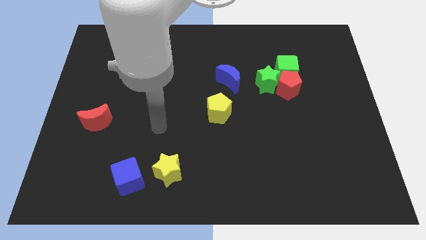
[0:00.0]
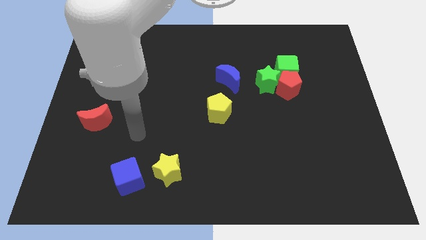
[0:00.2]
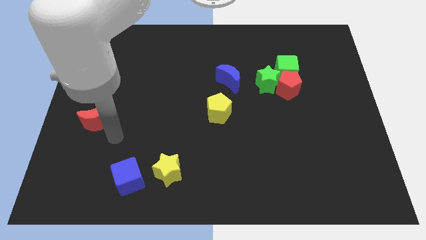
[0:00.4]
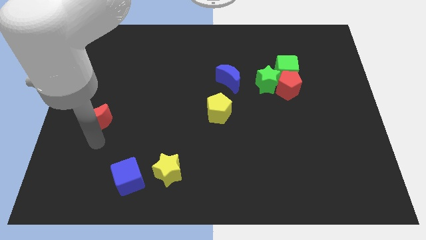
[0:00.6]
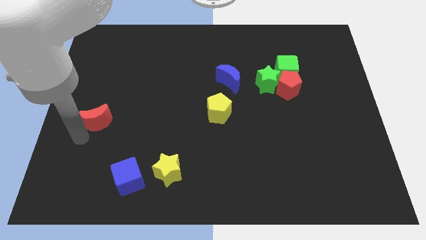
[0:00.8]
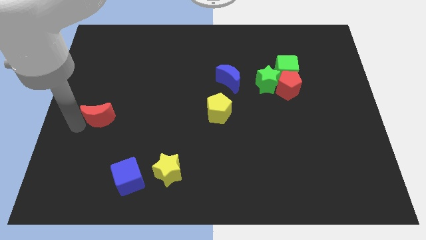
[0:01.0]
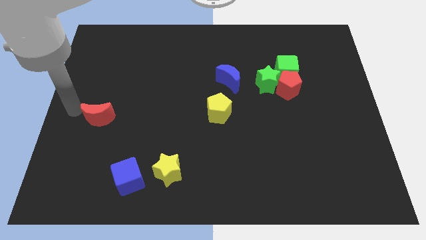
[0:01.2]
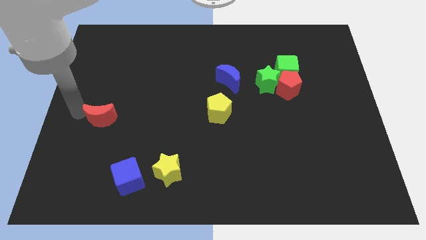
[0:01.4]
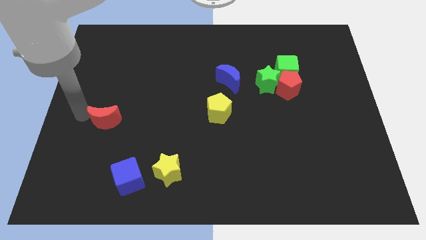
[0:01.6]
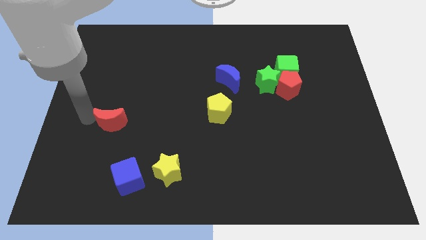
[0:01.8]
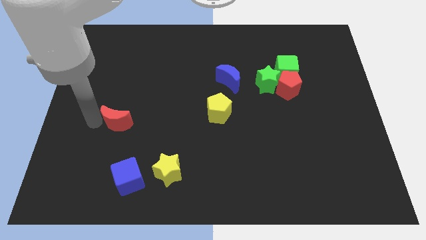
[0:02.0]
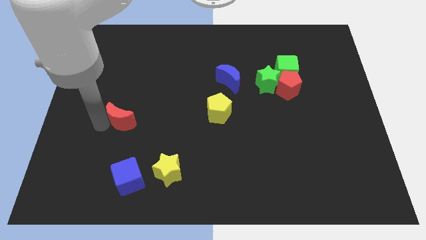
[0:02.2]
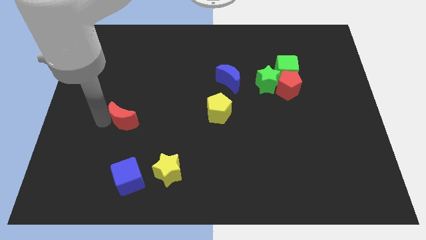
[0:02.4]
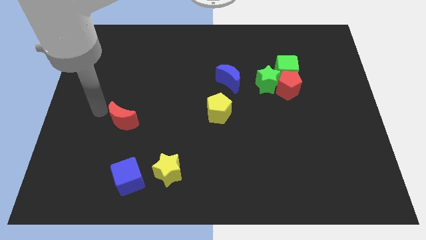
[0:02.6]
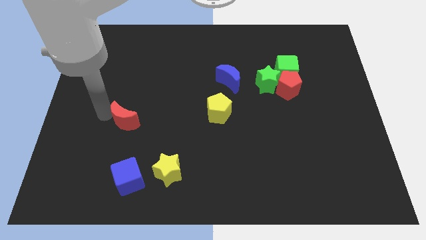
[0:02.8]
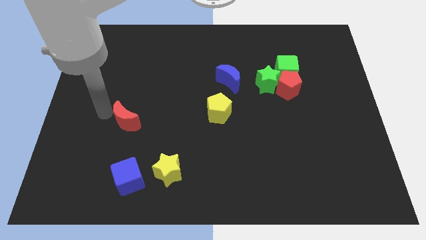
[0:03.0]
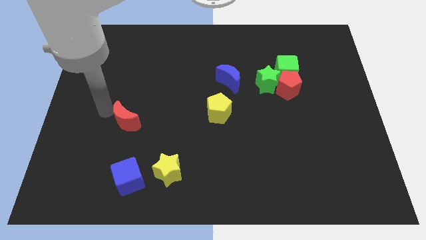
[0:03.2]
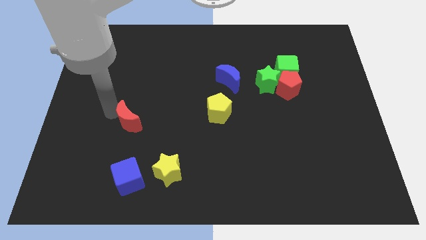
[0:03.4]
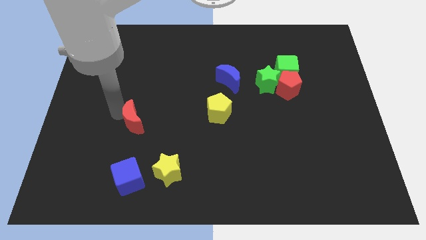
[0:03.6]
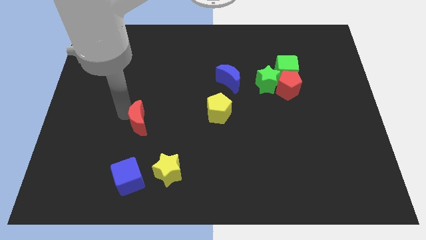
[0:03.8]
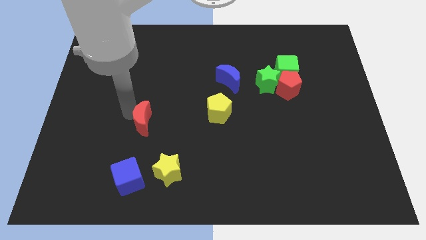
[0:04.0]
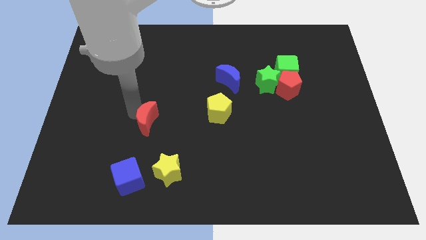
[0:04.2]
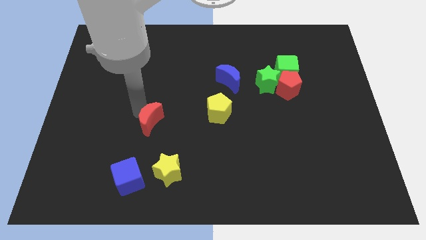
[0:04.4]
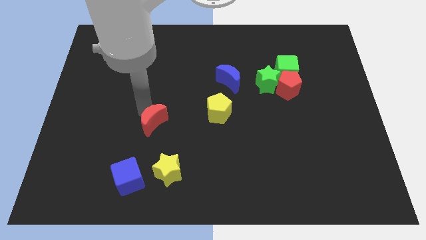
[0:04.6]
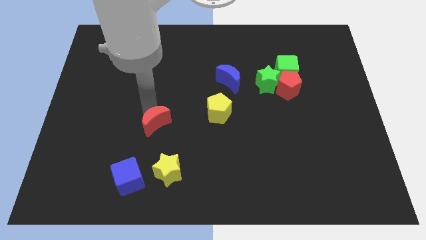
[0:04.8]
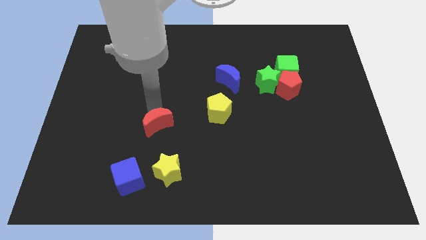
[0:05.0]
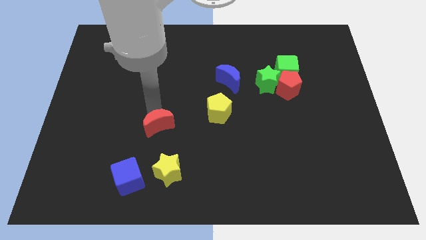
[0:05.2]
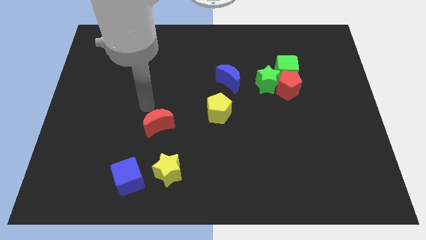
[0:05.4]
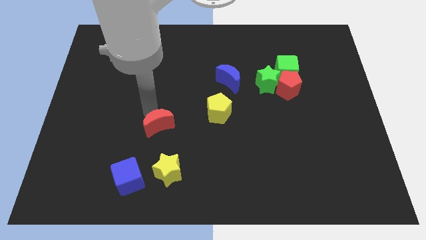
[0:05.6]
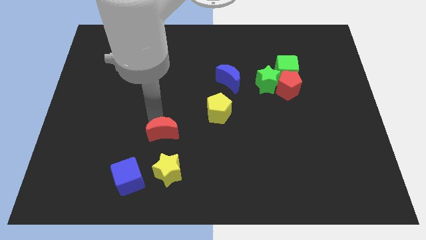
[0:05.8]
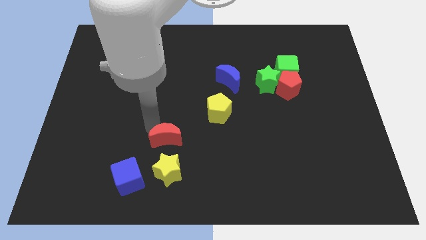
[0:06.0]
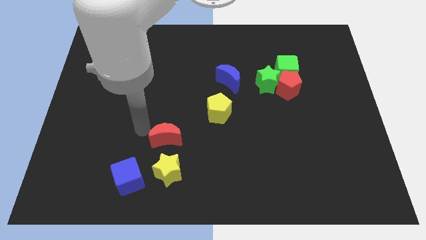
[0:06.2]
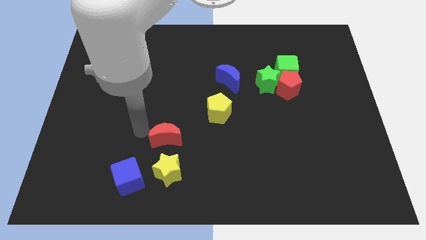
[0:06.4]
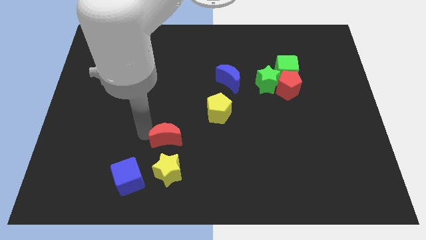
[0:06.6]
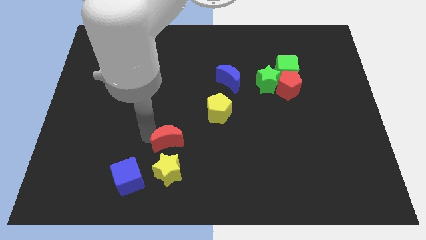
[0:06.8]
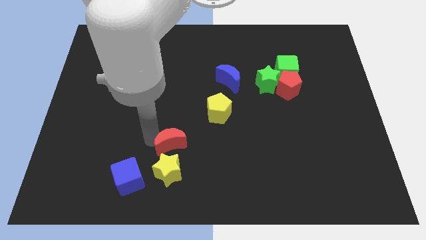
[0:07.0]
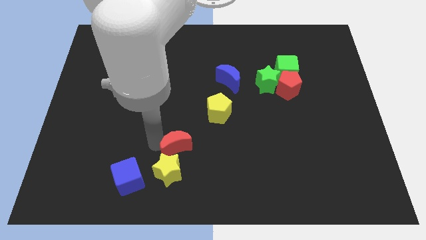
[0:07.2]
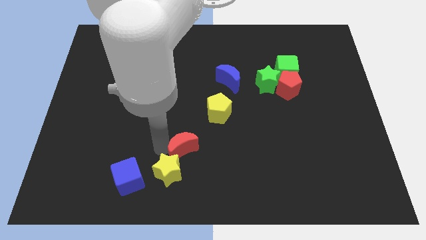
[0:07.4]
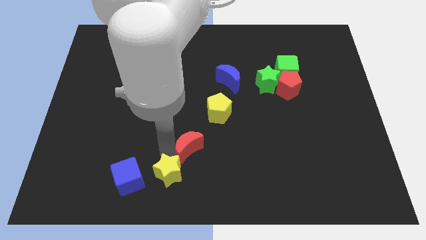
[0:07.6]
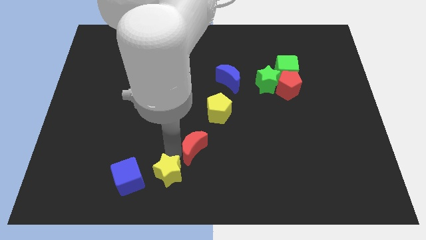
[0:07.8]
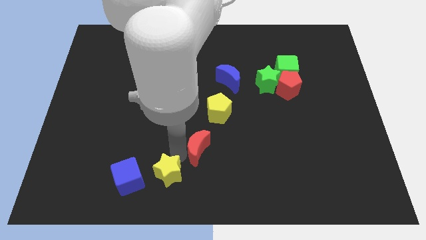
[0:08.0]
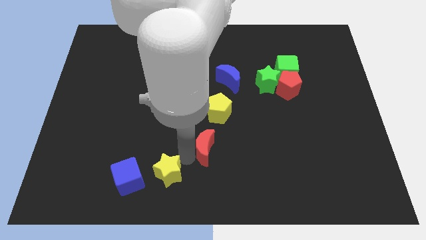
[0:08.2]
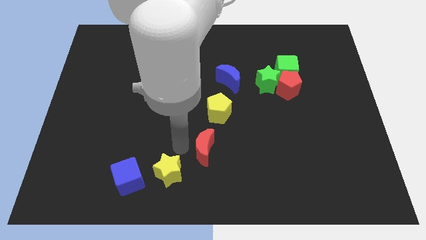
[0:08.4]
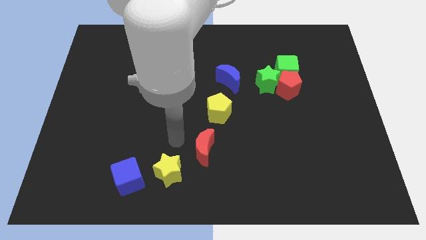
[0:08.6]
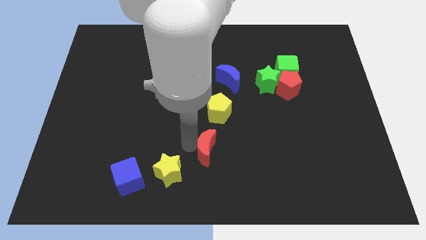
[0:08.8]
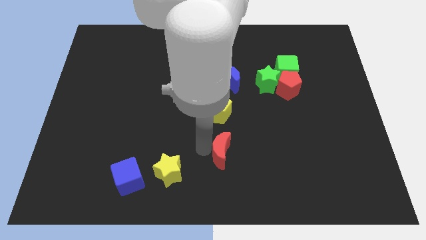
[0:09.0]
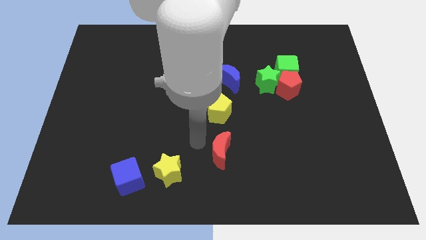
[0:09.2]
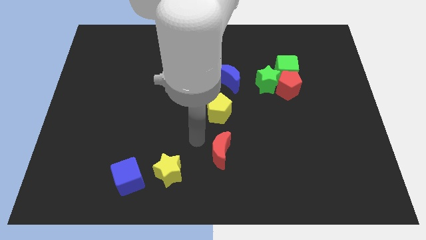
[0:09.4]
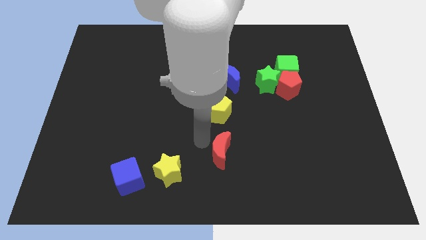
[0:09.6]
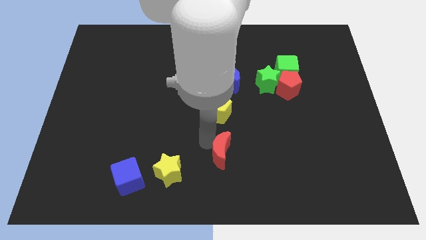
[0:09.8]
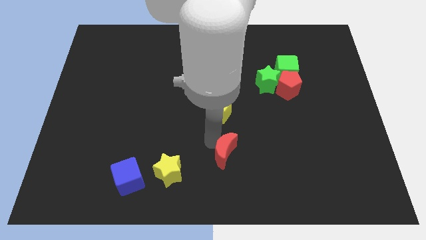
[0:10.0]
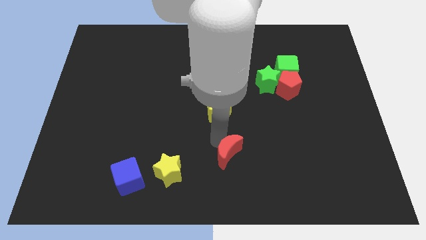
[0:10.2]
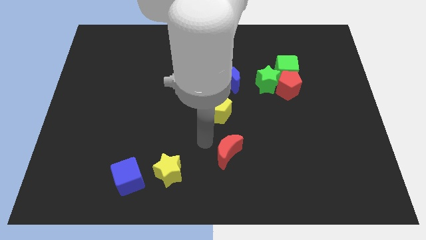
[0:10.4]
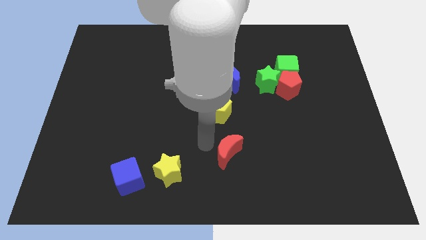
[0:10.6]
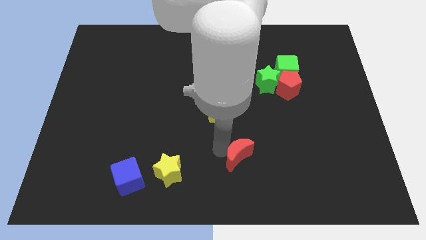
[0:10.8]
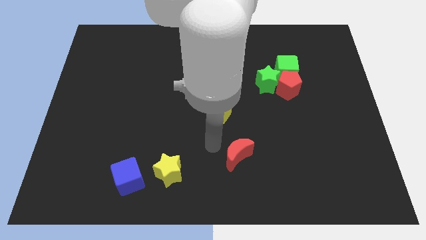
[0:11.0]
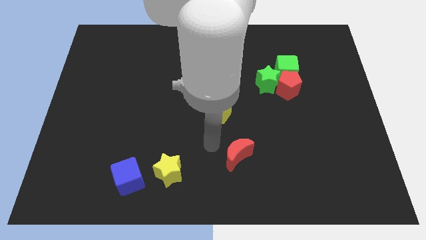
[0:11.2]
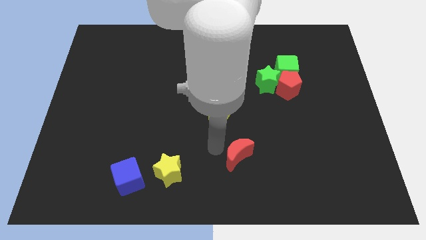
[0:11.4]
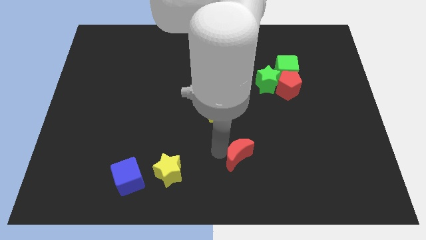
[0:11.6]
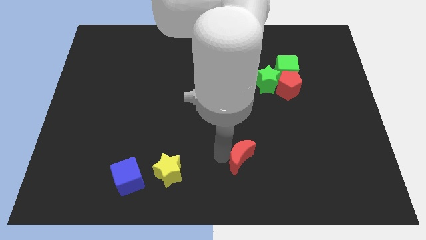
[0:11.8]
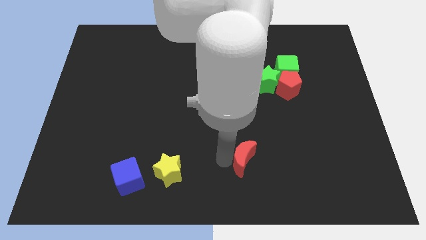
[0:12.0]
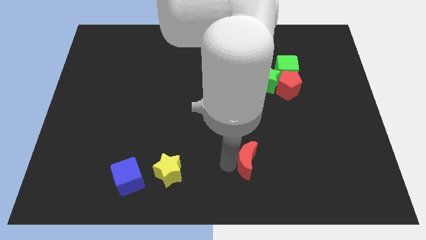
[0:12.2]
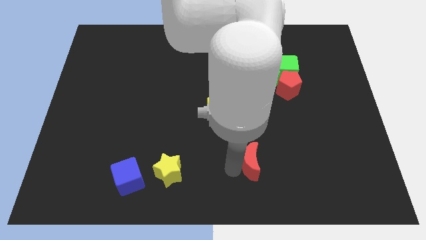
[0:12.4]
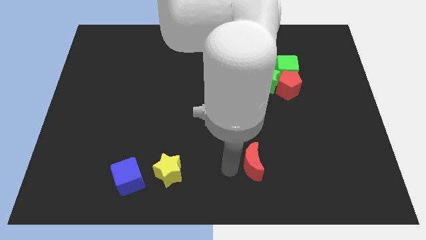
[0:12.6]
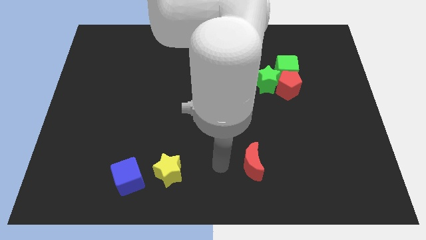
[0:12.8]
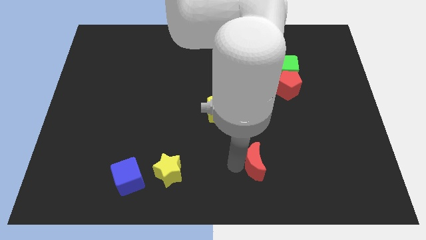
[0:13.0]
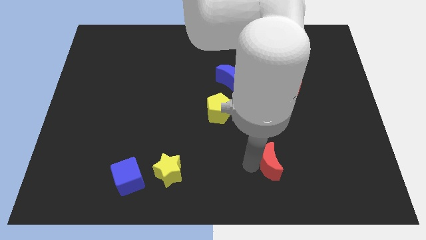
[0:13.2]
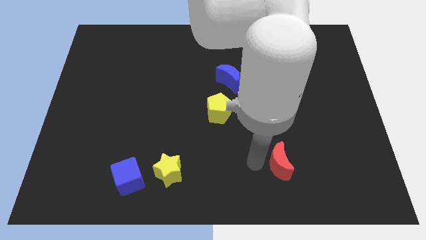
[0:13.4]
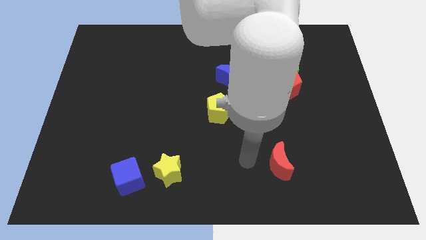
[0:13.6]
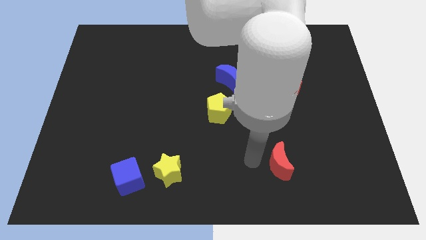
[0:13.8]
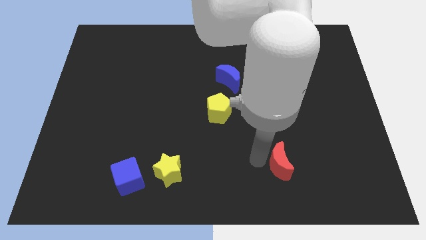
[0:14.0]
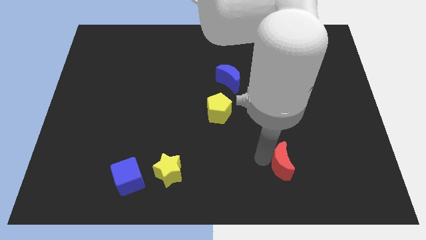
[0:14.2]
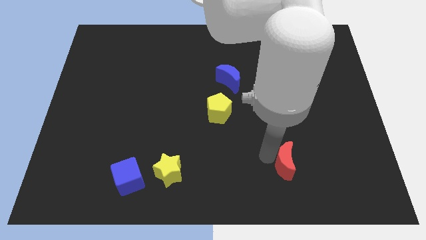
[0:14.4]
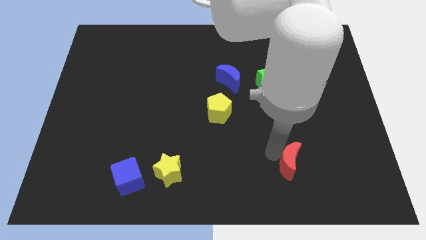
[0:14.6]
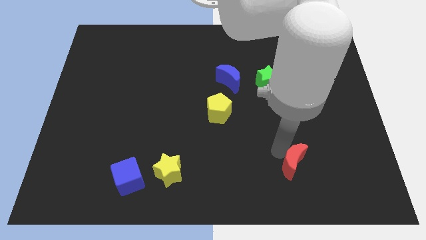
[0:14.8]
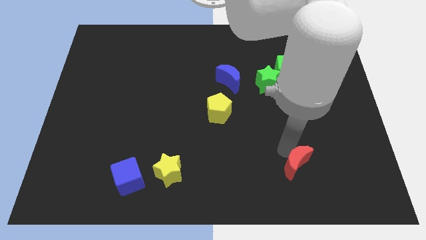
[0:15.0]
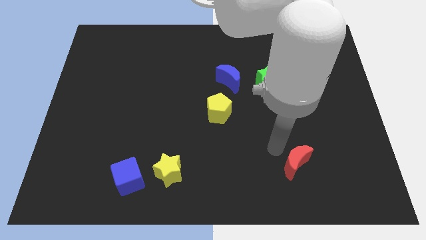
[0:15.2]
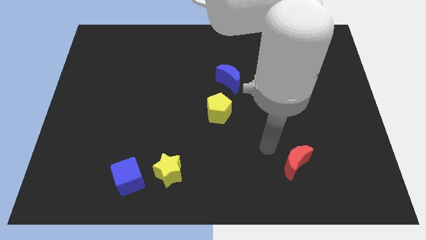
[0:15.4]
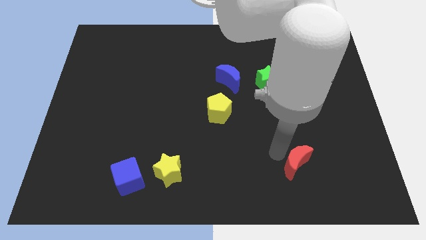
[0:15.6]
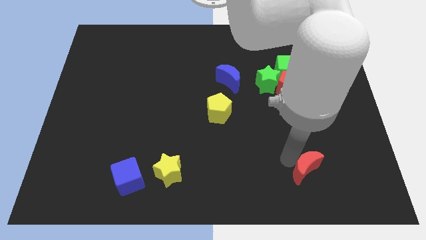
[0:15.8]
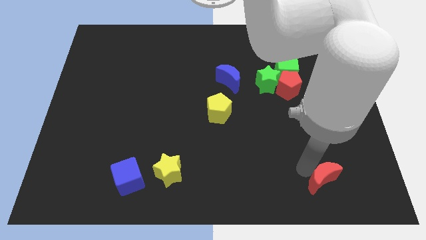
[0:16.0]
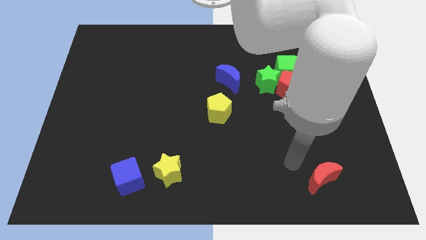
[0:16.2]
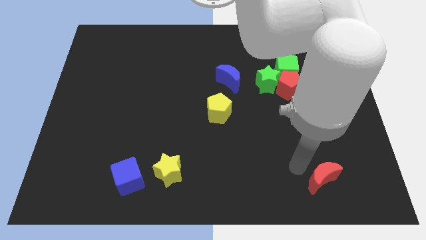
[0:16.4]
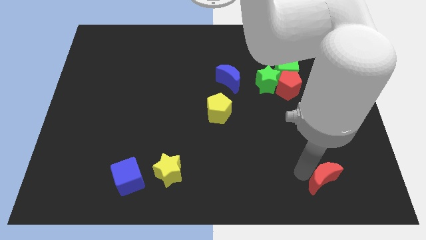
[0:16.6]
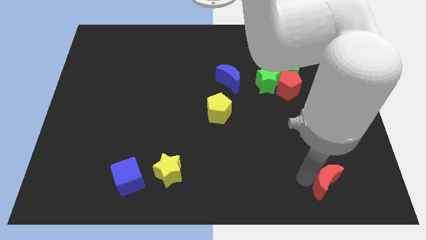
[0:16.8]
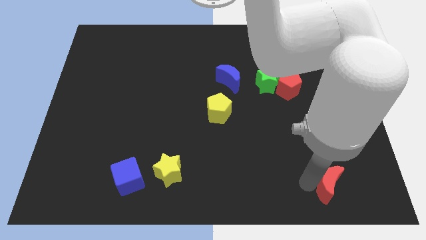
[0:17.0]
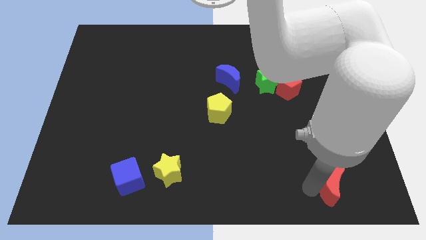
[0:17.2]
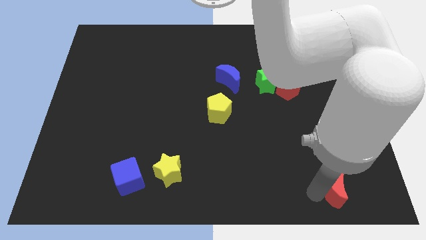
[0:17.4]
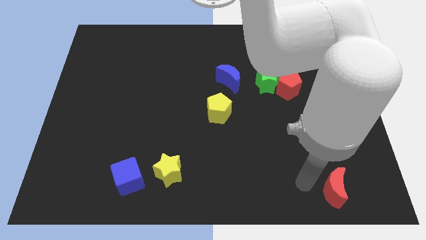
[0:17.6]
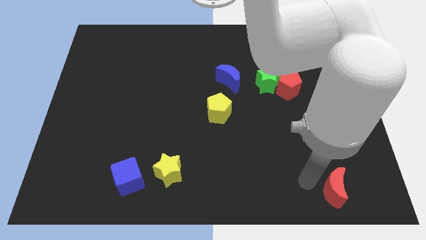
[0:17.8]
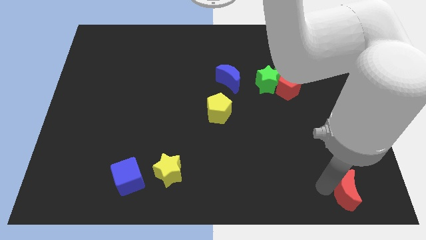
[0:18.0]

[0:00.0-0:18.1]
move the red moon to the bottom right of the board
